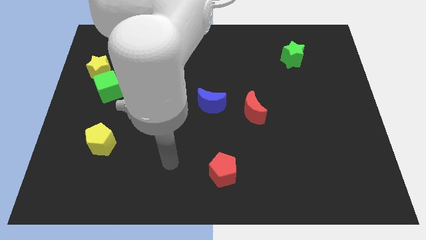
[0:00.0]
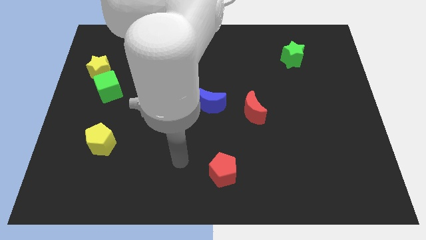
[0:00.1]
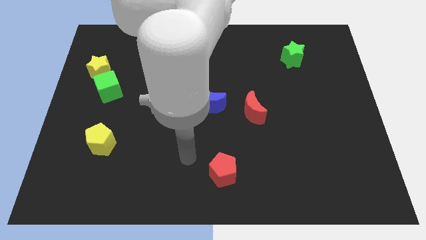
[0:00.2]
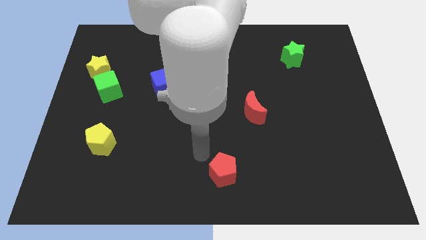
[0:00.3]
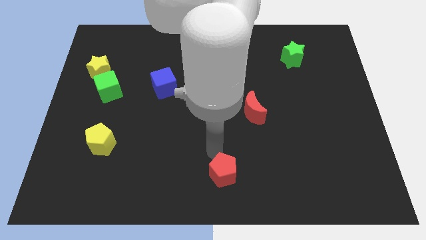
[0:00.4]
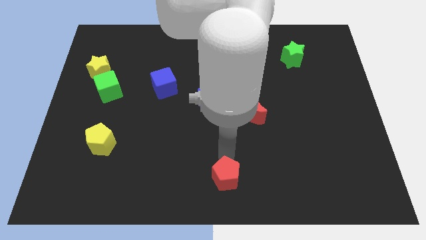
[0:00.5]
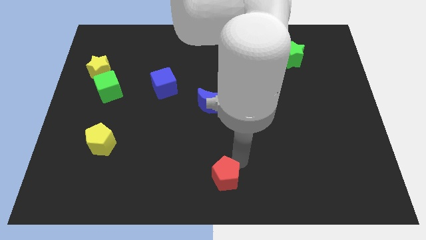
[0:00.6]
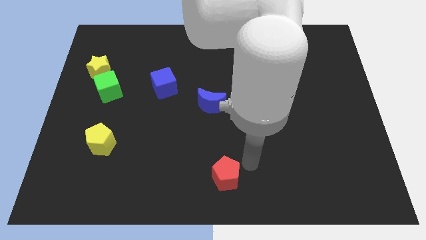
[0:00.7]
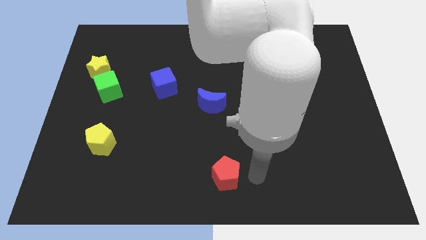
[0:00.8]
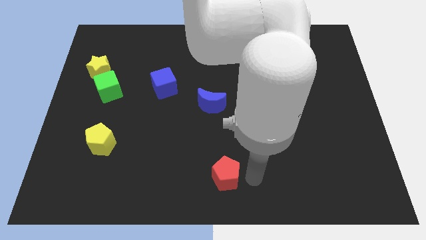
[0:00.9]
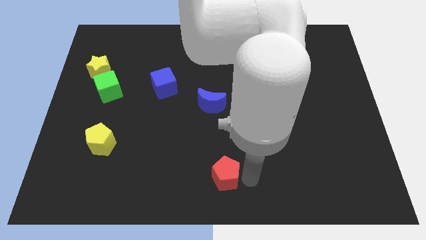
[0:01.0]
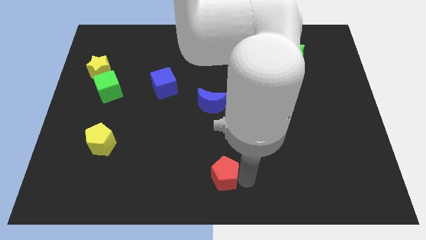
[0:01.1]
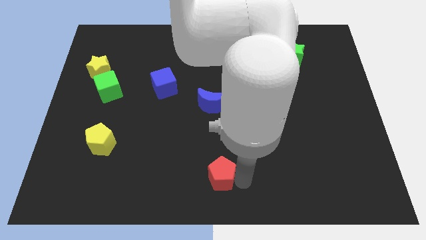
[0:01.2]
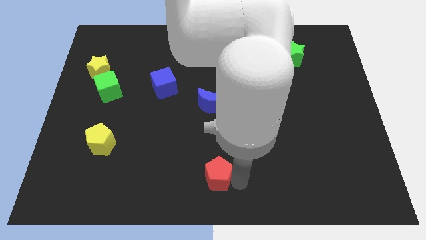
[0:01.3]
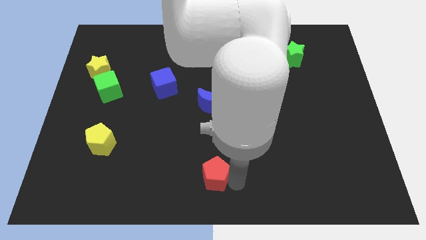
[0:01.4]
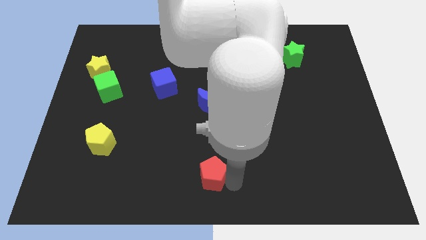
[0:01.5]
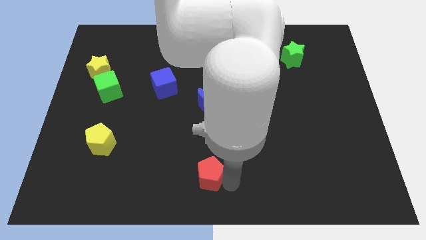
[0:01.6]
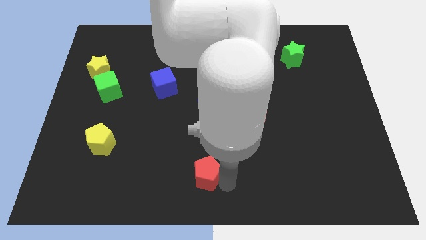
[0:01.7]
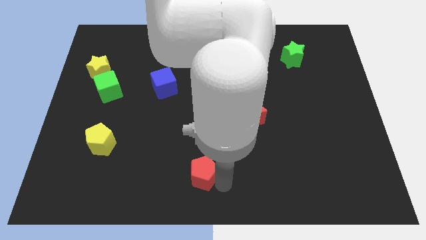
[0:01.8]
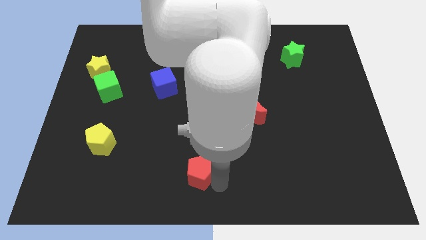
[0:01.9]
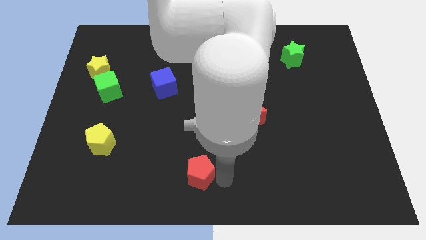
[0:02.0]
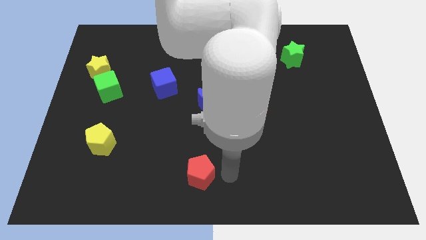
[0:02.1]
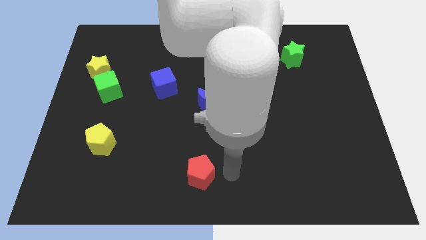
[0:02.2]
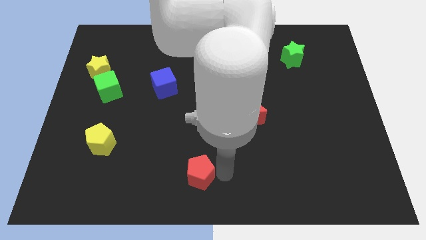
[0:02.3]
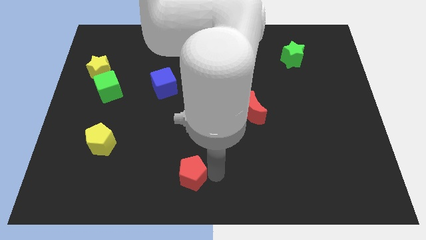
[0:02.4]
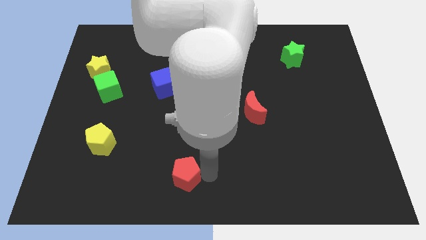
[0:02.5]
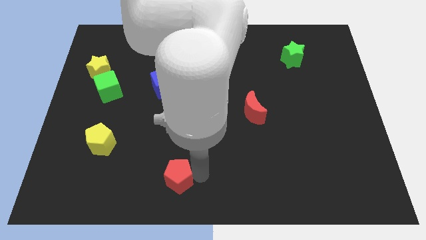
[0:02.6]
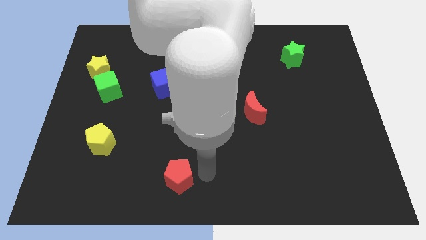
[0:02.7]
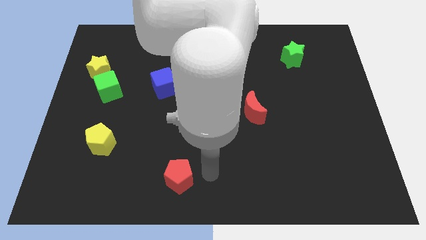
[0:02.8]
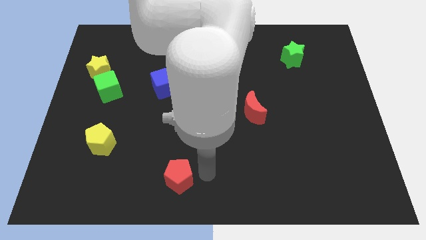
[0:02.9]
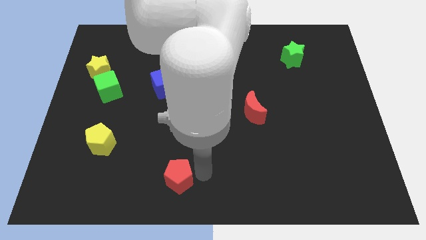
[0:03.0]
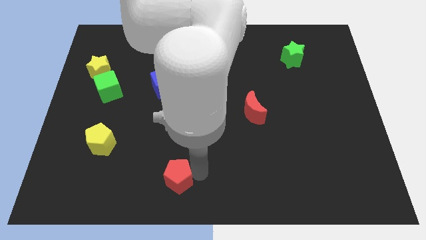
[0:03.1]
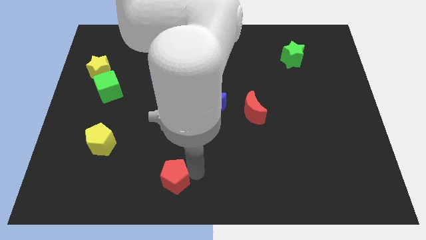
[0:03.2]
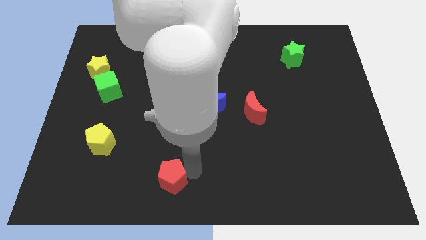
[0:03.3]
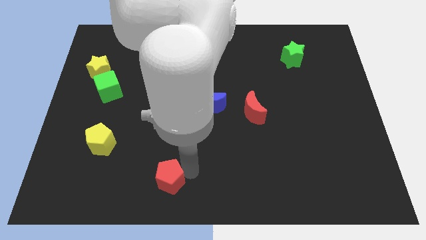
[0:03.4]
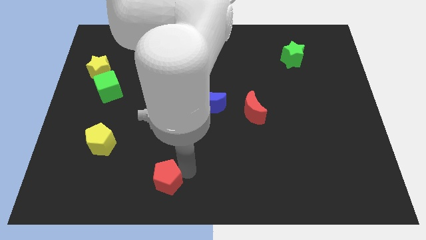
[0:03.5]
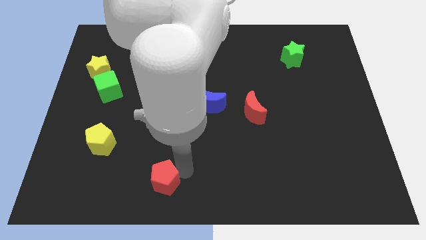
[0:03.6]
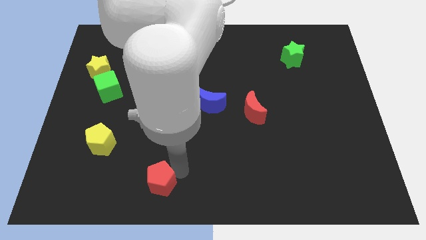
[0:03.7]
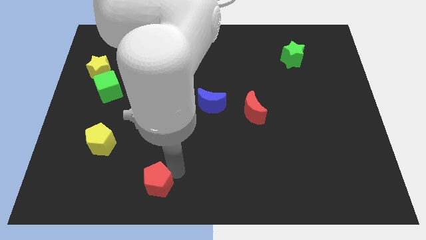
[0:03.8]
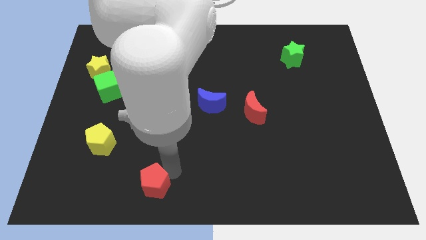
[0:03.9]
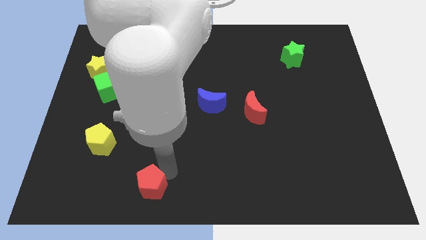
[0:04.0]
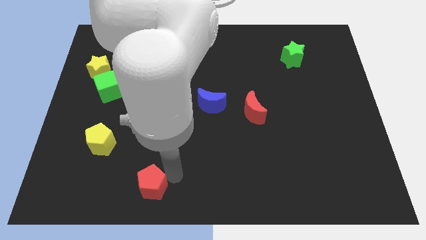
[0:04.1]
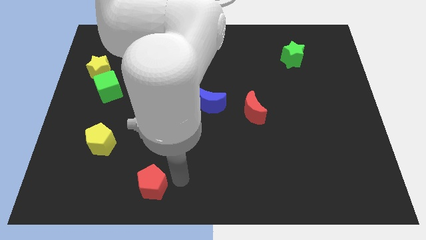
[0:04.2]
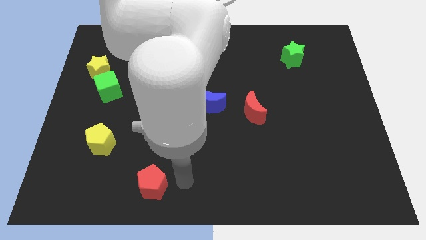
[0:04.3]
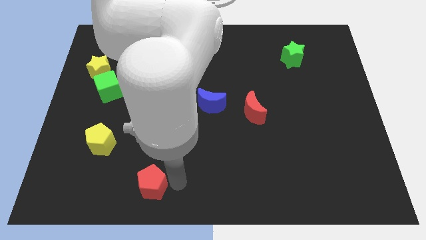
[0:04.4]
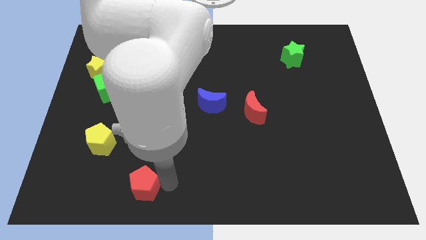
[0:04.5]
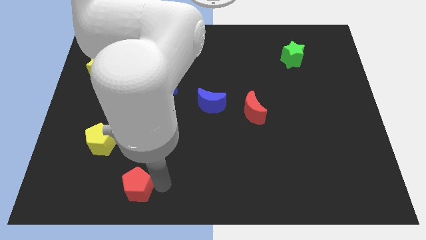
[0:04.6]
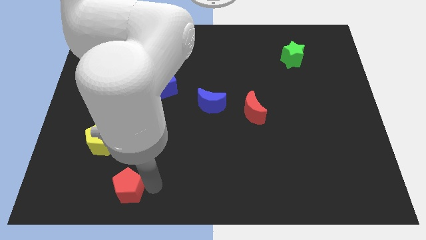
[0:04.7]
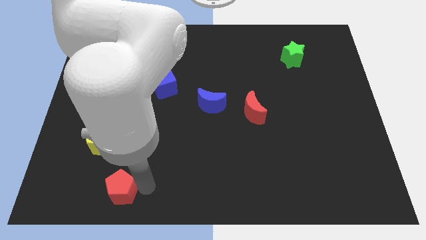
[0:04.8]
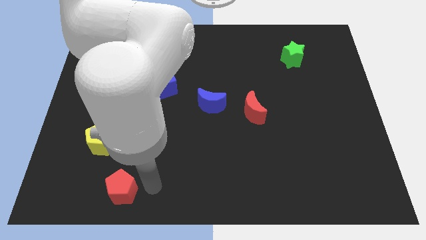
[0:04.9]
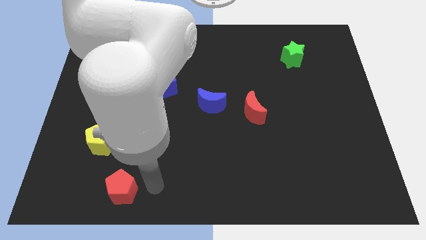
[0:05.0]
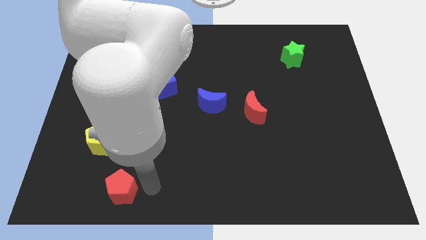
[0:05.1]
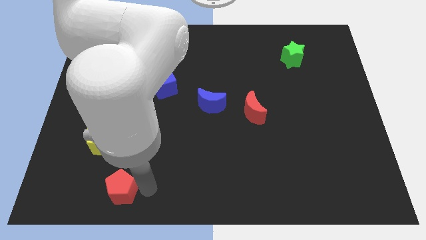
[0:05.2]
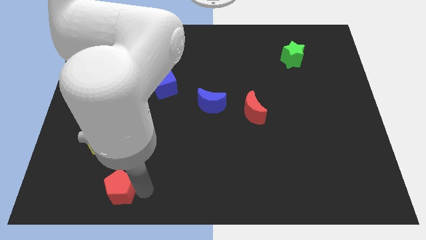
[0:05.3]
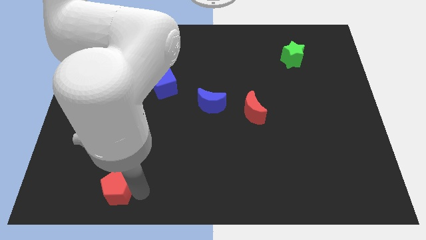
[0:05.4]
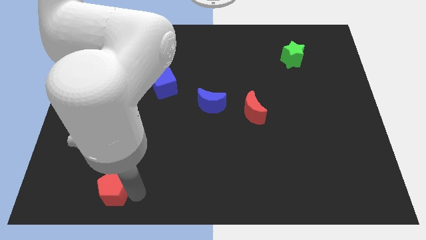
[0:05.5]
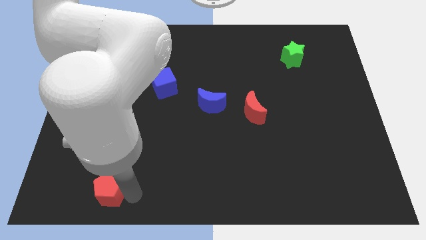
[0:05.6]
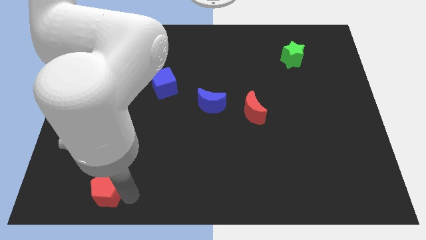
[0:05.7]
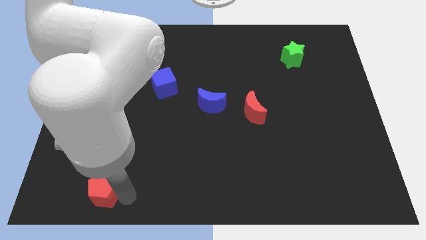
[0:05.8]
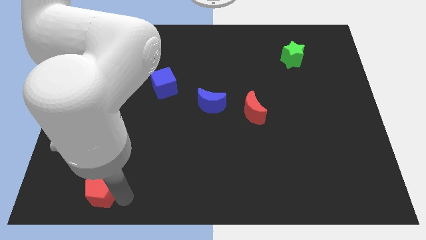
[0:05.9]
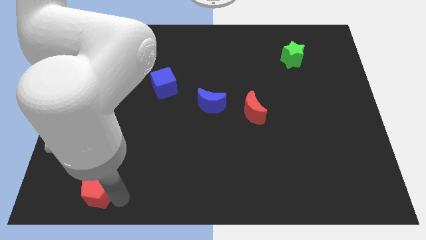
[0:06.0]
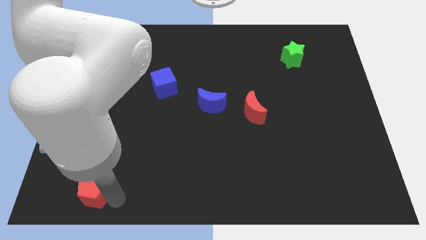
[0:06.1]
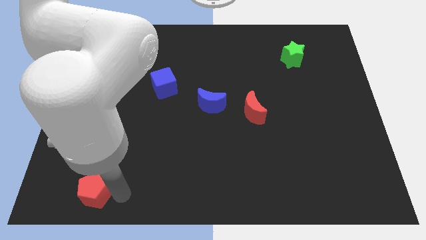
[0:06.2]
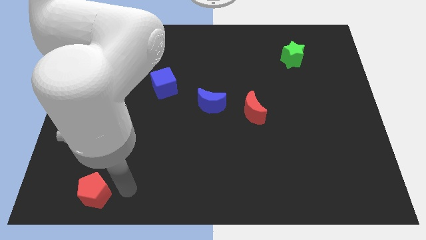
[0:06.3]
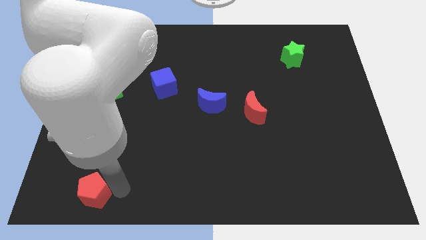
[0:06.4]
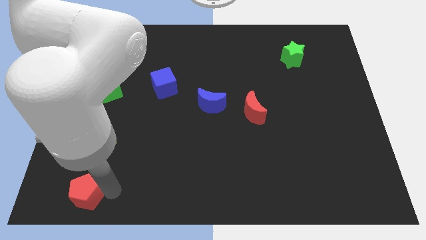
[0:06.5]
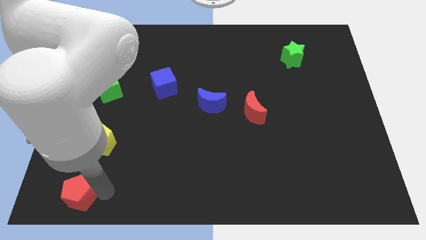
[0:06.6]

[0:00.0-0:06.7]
push the red pentagon to the bottom left corner

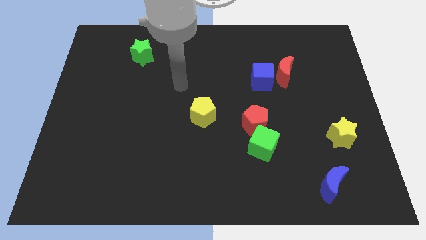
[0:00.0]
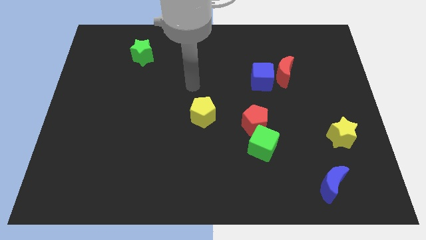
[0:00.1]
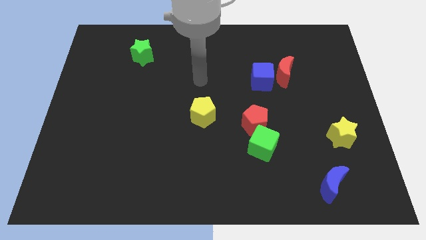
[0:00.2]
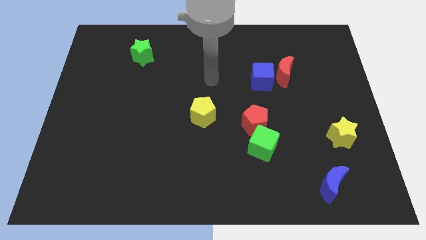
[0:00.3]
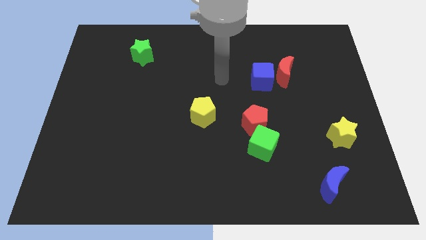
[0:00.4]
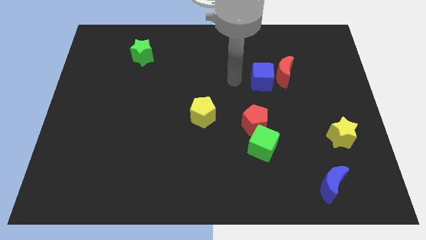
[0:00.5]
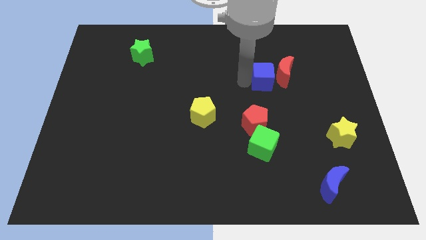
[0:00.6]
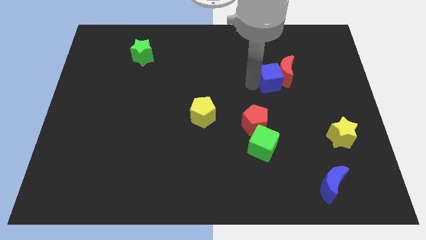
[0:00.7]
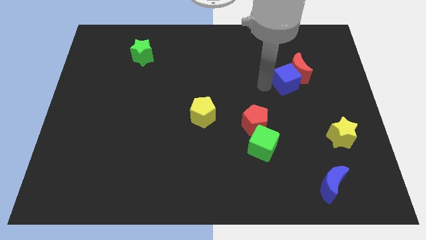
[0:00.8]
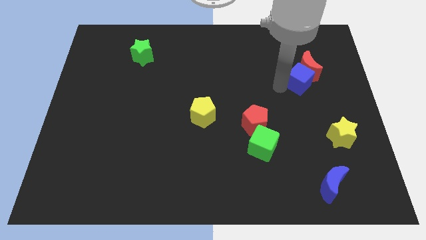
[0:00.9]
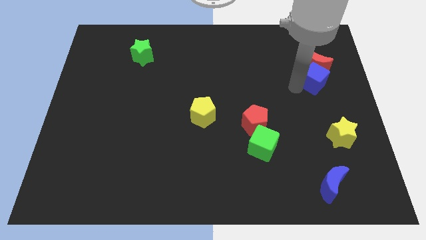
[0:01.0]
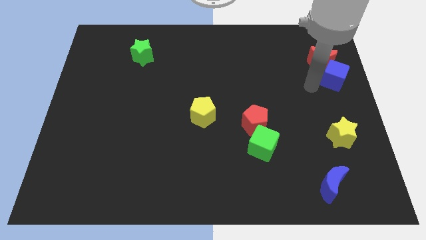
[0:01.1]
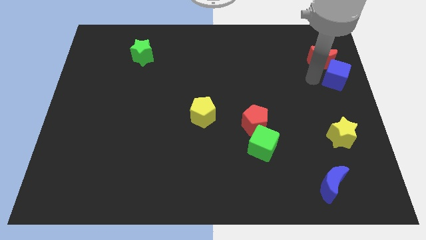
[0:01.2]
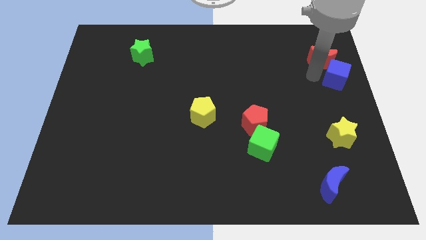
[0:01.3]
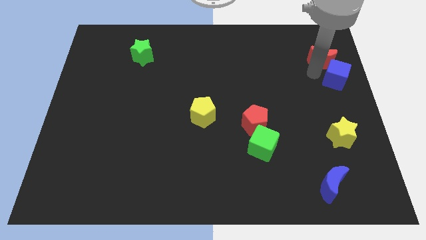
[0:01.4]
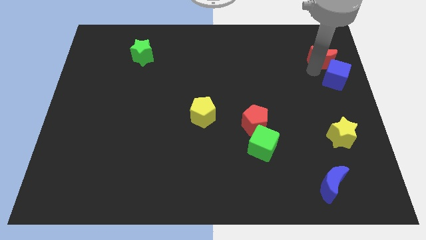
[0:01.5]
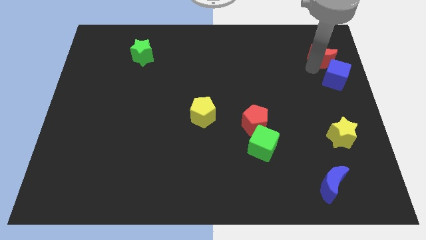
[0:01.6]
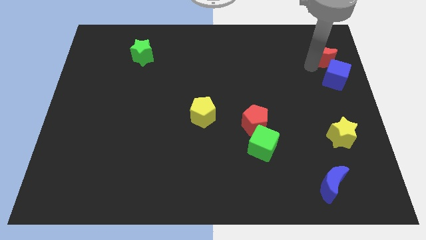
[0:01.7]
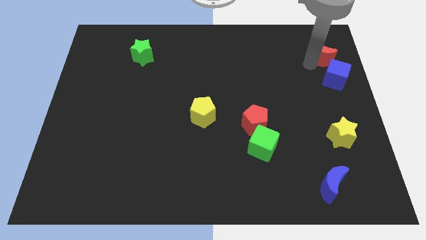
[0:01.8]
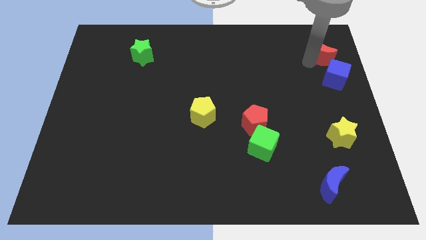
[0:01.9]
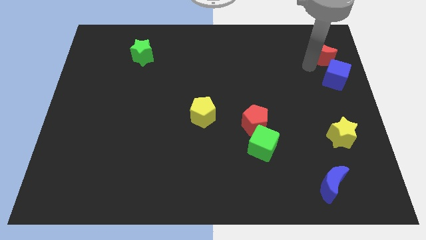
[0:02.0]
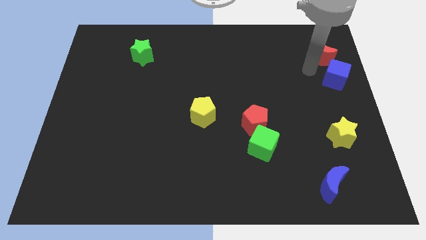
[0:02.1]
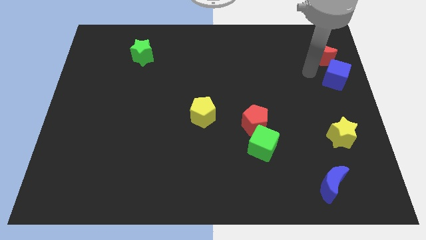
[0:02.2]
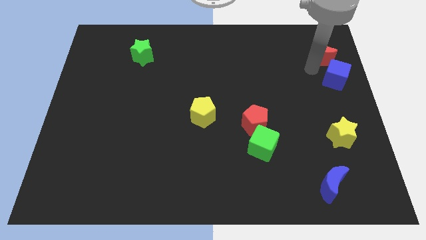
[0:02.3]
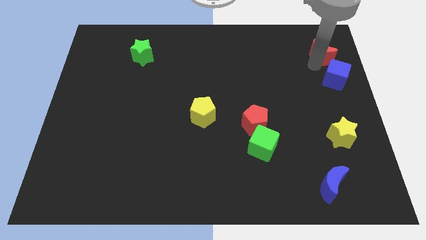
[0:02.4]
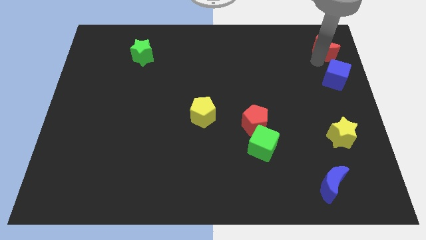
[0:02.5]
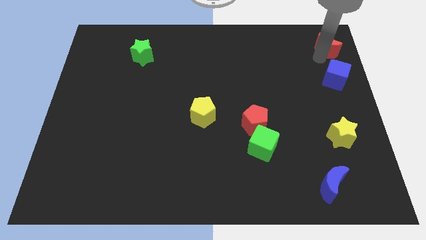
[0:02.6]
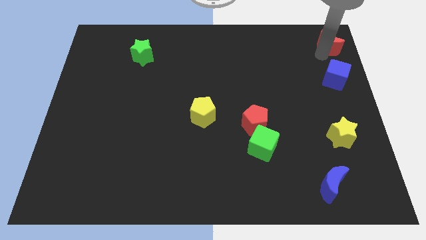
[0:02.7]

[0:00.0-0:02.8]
move the red moon to the top right of the board
